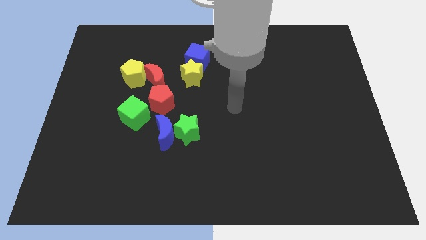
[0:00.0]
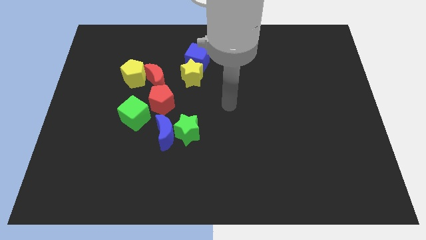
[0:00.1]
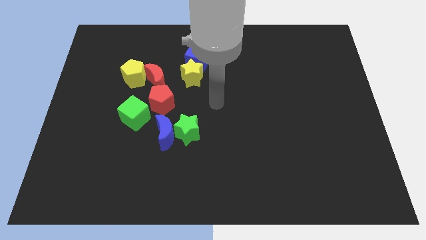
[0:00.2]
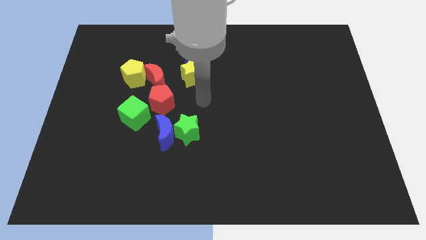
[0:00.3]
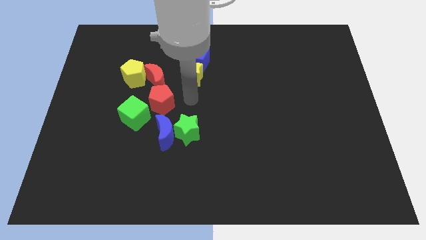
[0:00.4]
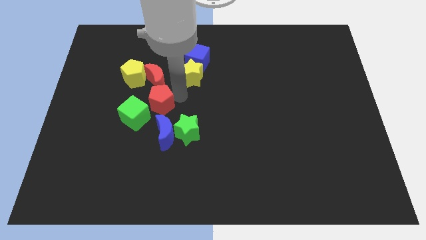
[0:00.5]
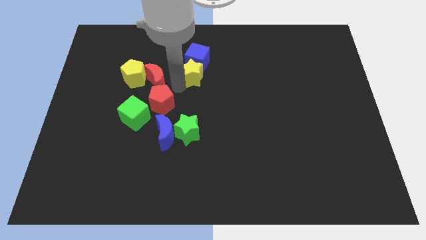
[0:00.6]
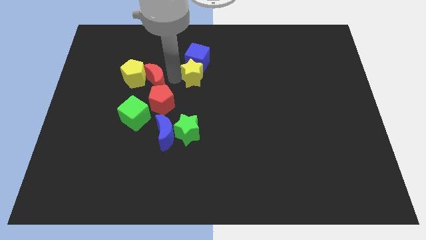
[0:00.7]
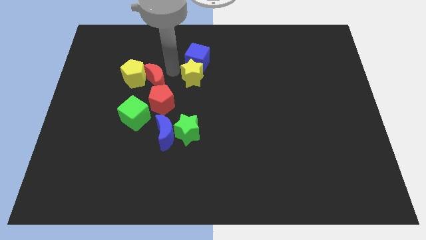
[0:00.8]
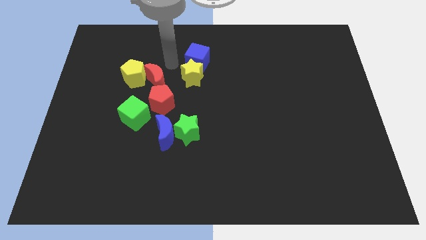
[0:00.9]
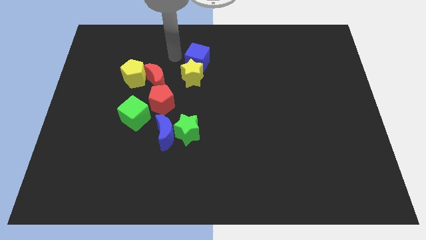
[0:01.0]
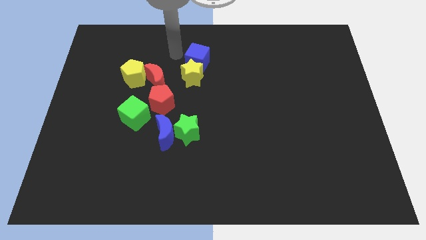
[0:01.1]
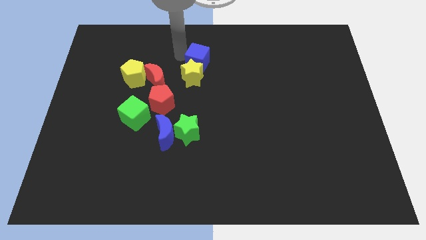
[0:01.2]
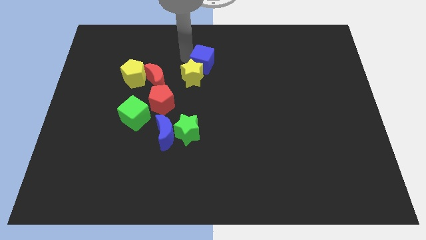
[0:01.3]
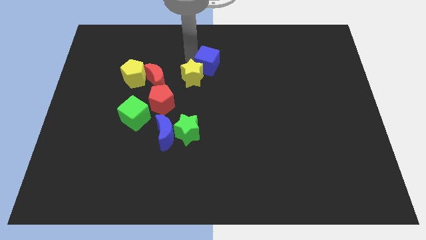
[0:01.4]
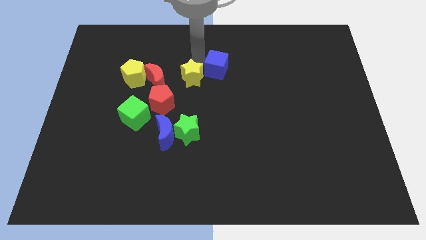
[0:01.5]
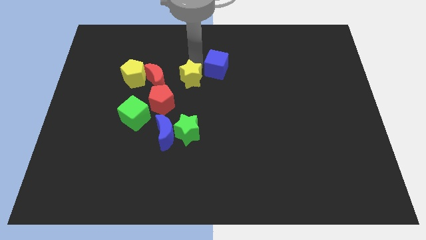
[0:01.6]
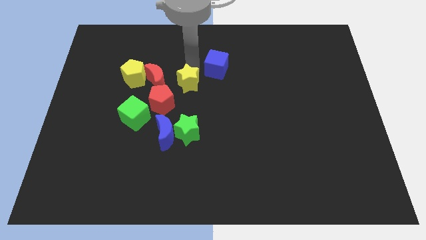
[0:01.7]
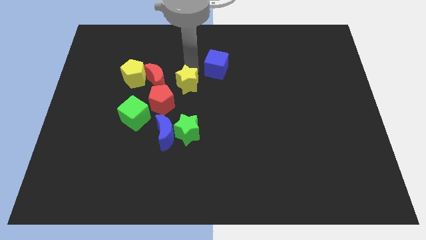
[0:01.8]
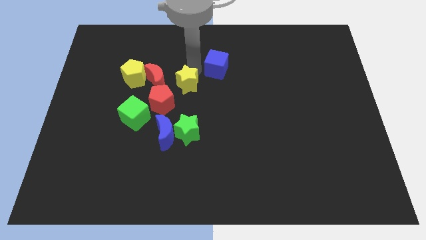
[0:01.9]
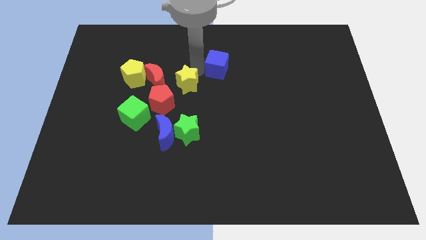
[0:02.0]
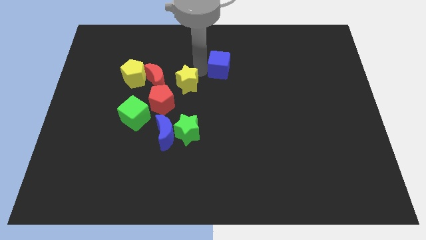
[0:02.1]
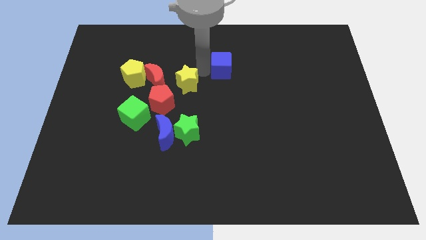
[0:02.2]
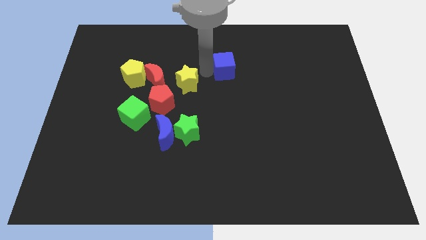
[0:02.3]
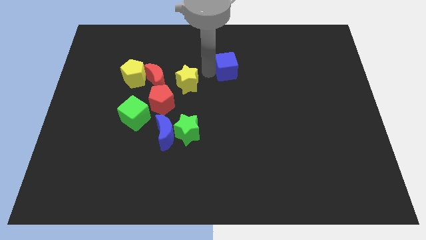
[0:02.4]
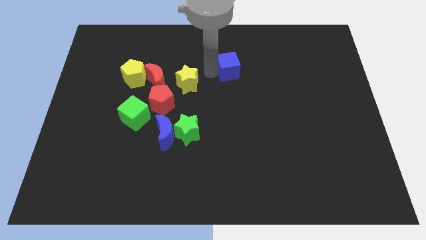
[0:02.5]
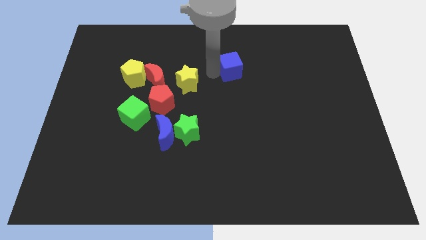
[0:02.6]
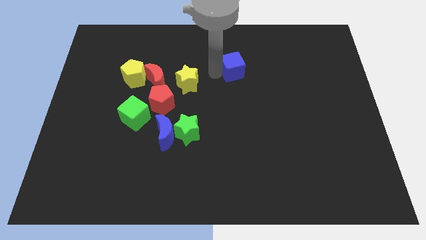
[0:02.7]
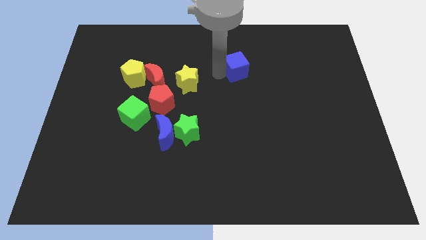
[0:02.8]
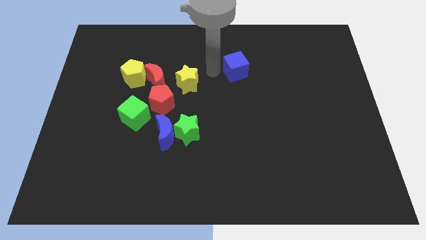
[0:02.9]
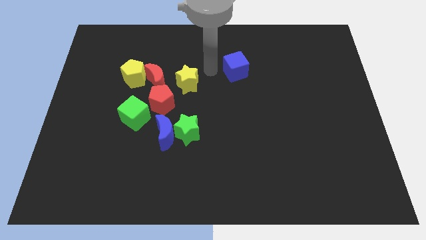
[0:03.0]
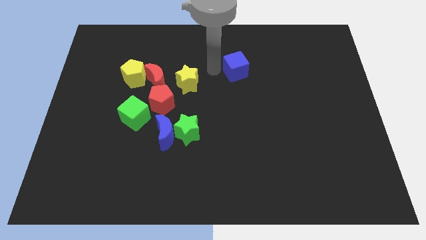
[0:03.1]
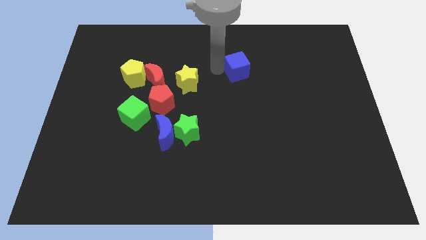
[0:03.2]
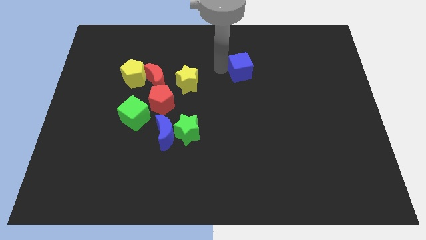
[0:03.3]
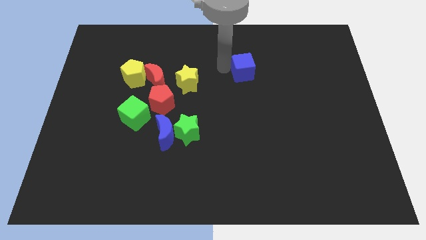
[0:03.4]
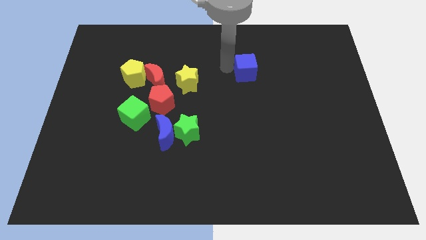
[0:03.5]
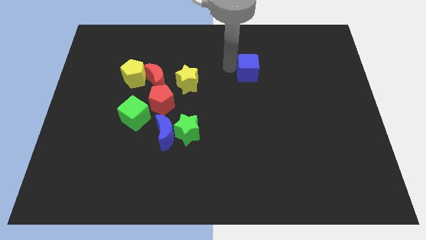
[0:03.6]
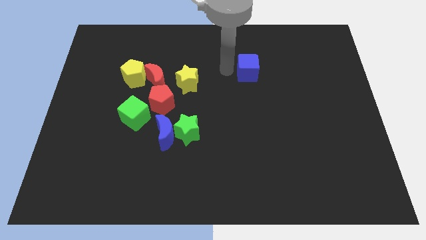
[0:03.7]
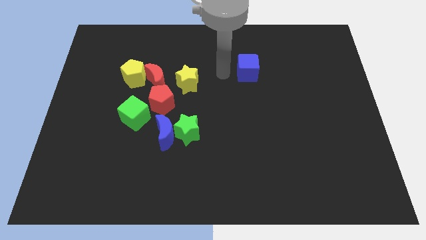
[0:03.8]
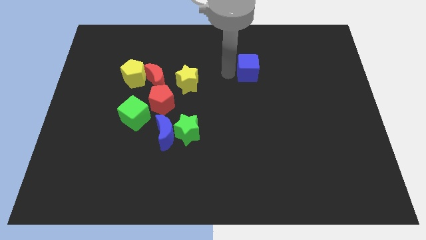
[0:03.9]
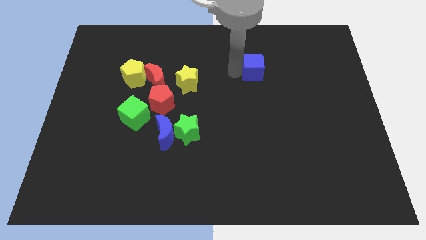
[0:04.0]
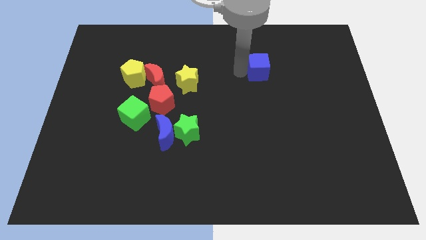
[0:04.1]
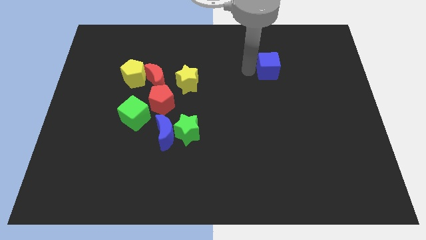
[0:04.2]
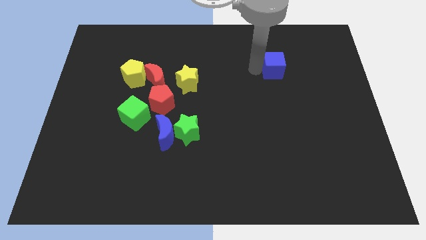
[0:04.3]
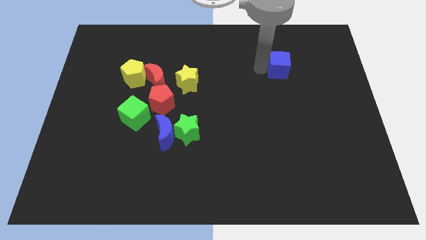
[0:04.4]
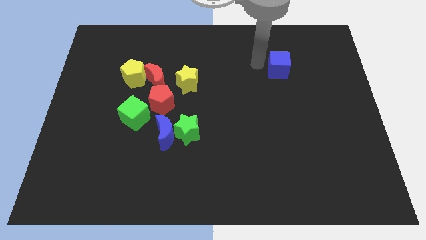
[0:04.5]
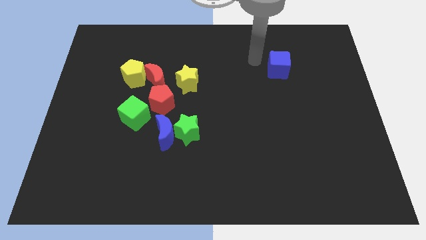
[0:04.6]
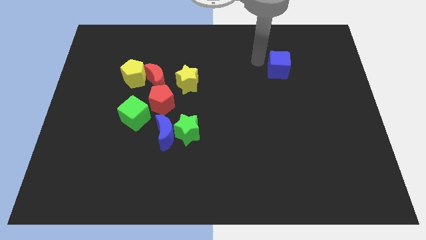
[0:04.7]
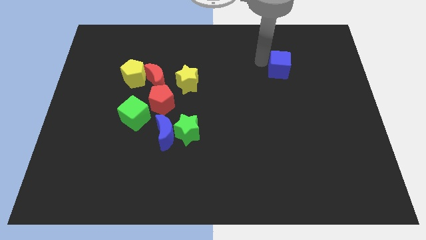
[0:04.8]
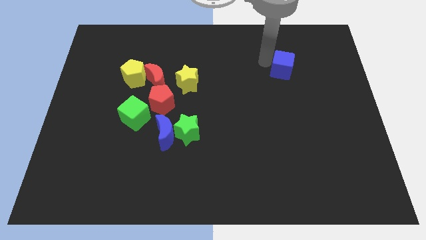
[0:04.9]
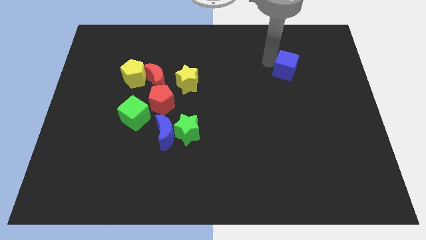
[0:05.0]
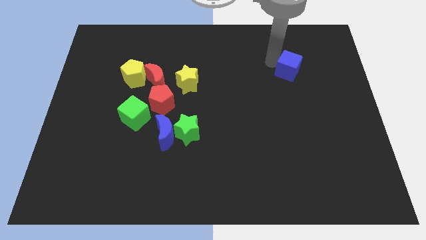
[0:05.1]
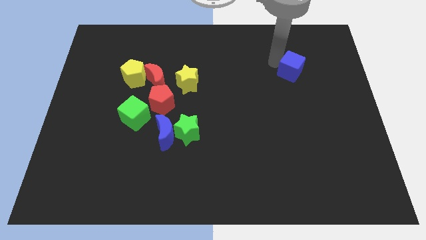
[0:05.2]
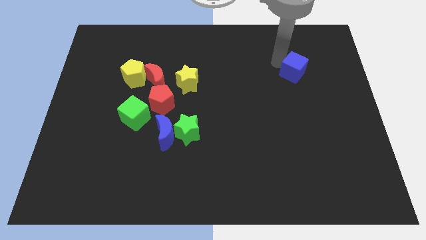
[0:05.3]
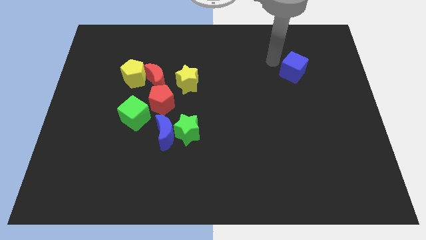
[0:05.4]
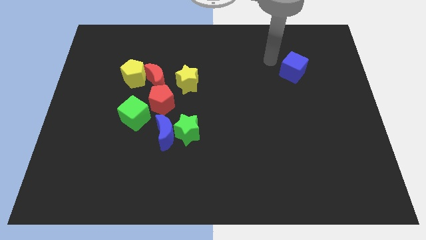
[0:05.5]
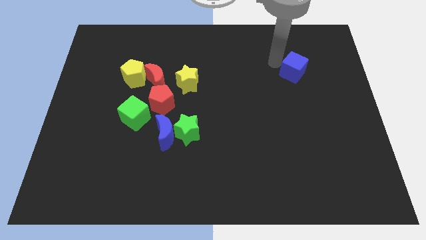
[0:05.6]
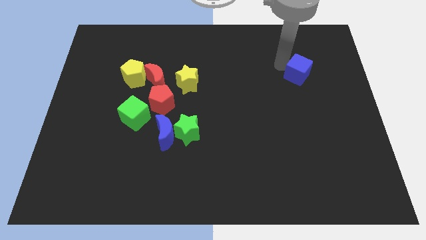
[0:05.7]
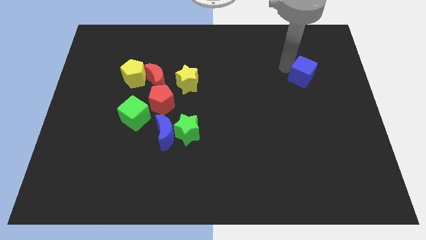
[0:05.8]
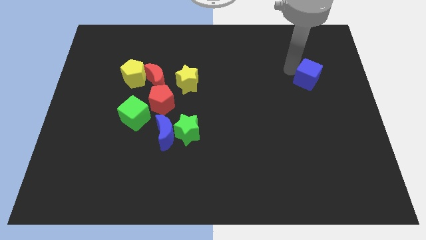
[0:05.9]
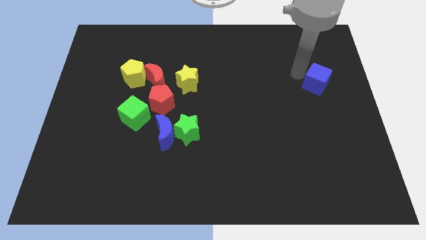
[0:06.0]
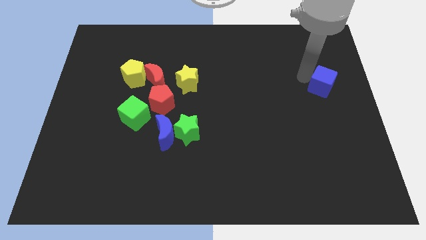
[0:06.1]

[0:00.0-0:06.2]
slide the blue cube to the right side
